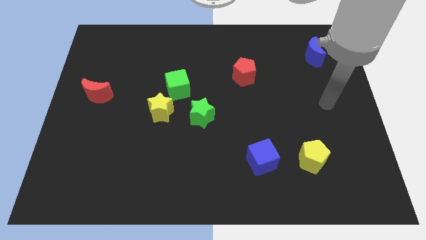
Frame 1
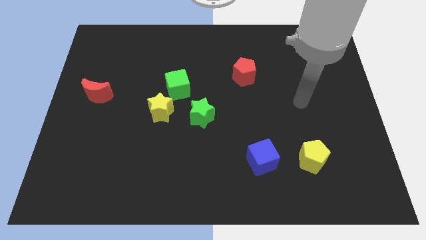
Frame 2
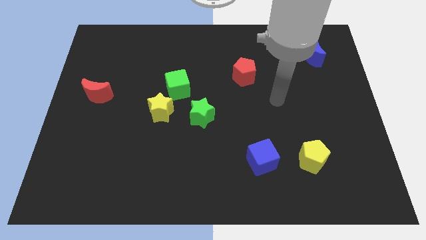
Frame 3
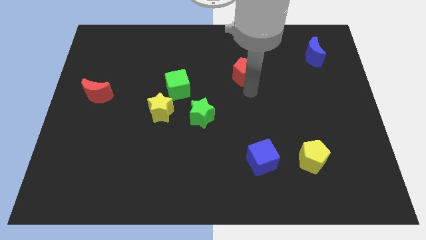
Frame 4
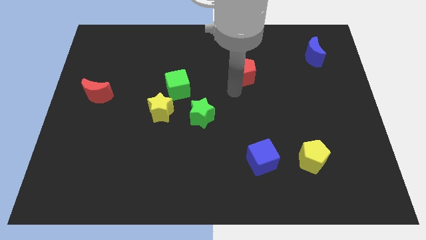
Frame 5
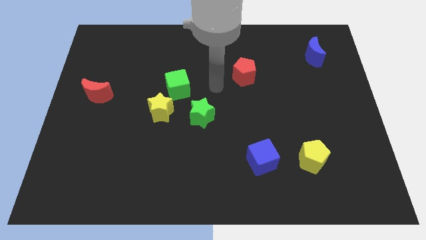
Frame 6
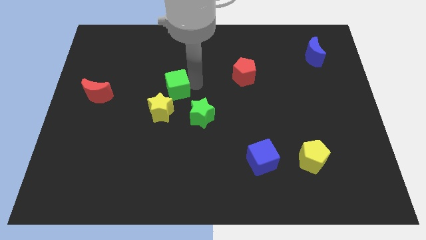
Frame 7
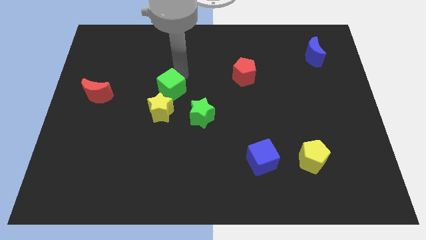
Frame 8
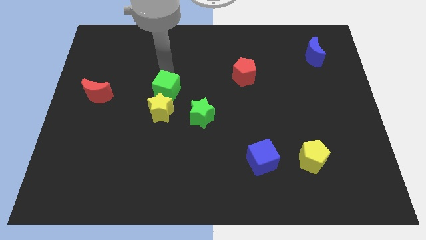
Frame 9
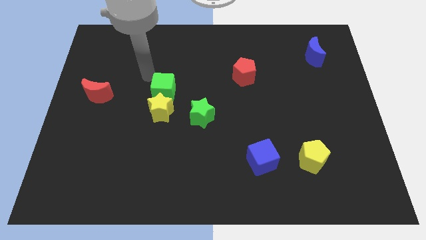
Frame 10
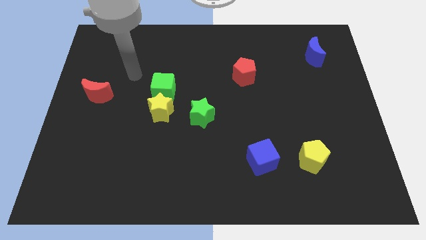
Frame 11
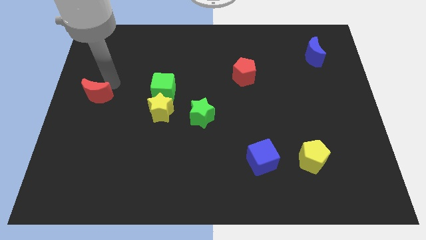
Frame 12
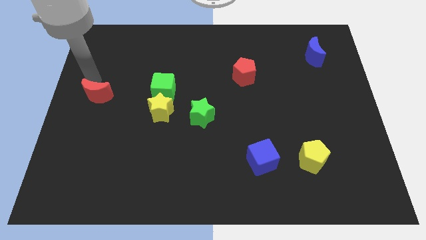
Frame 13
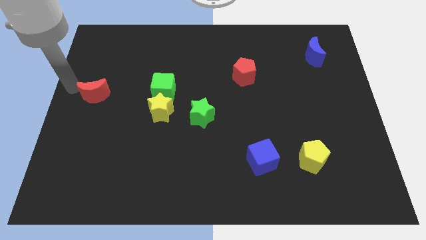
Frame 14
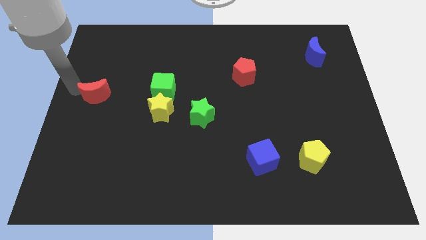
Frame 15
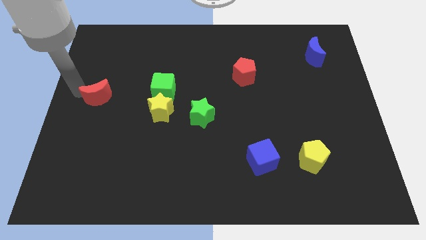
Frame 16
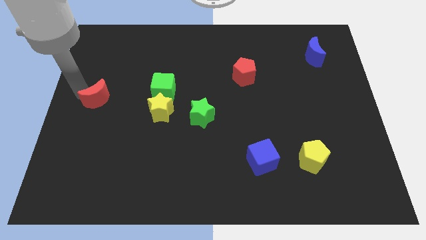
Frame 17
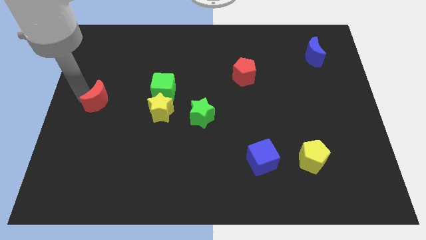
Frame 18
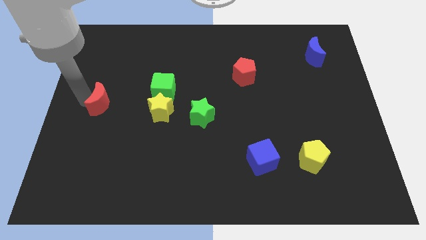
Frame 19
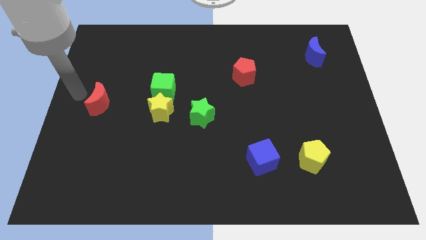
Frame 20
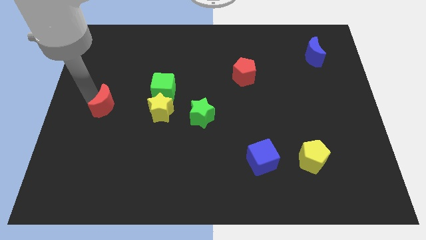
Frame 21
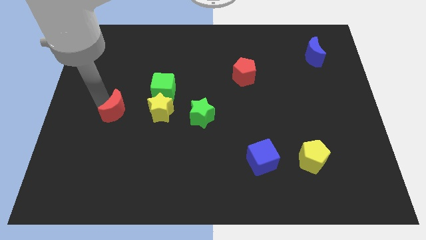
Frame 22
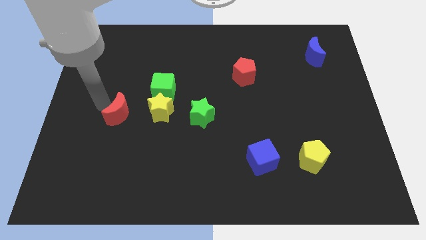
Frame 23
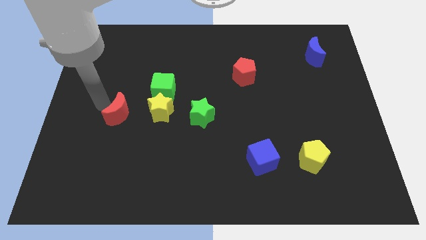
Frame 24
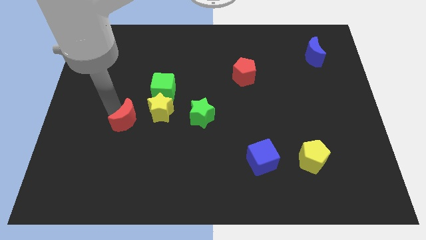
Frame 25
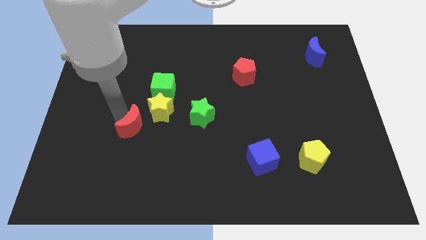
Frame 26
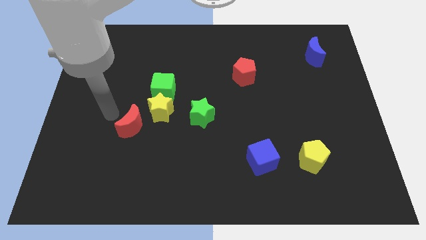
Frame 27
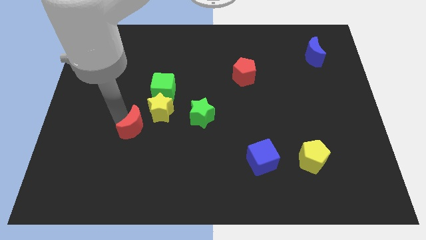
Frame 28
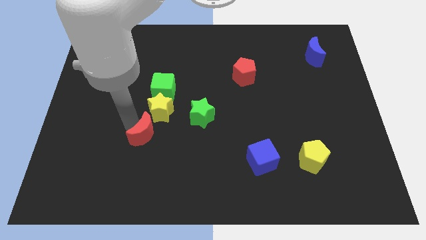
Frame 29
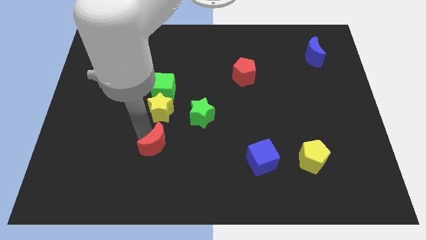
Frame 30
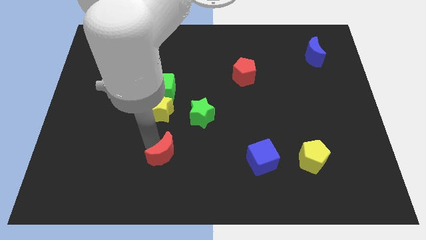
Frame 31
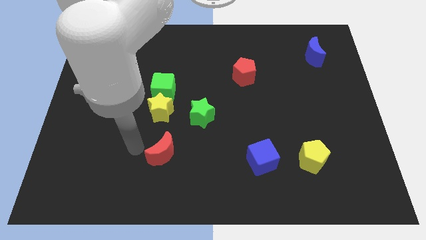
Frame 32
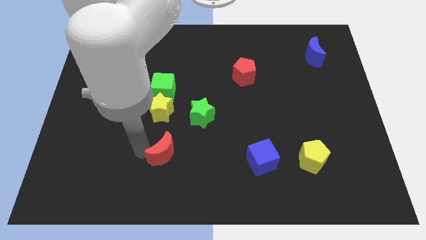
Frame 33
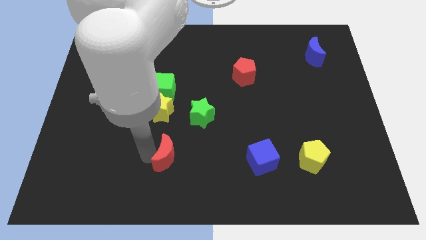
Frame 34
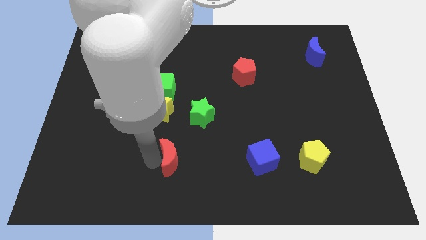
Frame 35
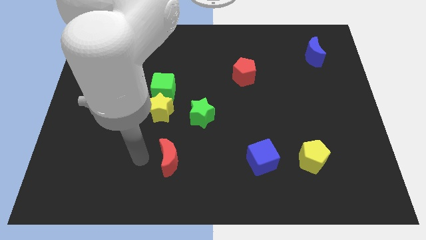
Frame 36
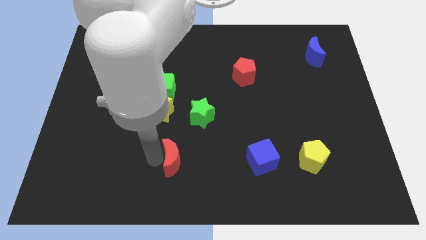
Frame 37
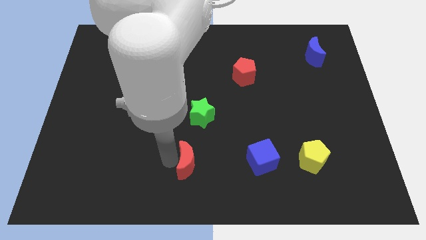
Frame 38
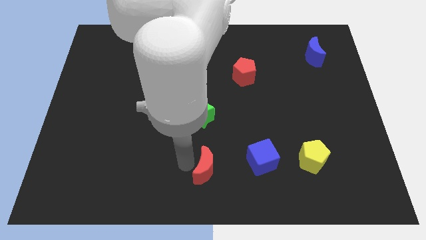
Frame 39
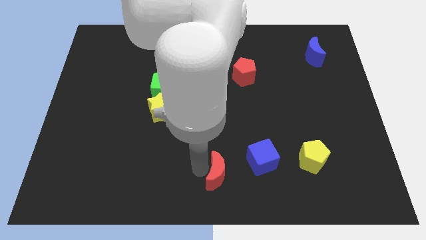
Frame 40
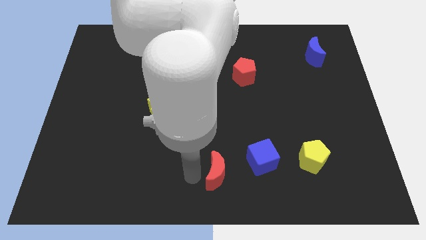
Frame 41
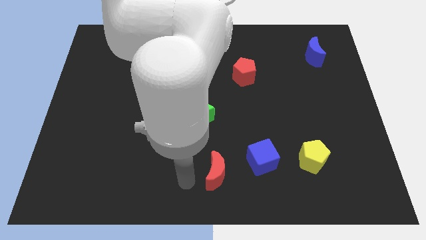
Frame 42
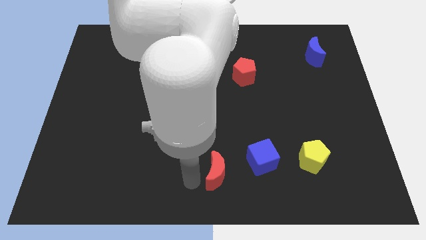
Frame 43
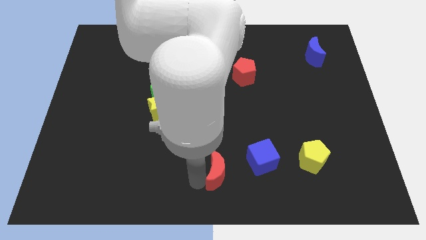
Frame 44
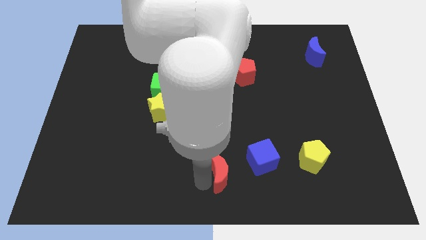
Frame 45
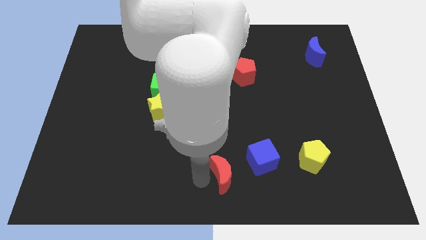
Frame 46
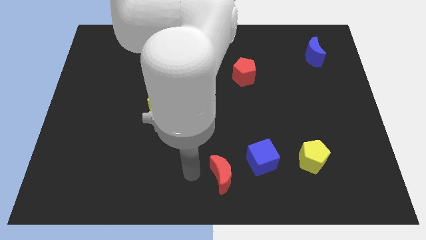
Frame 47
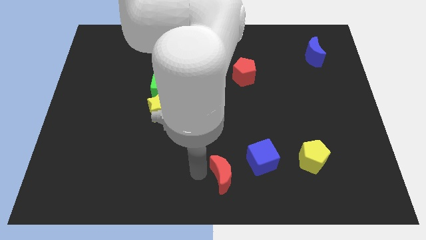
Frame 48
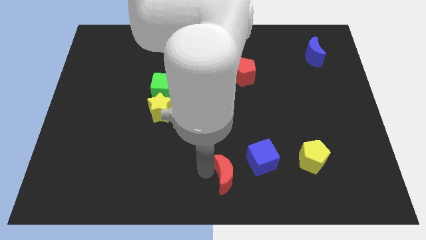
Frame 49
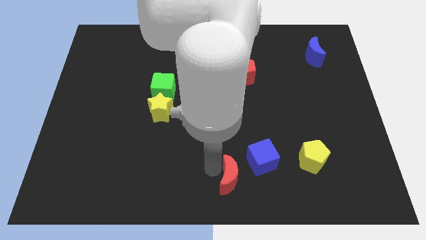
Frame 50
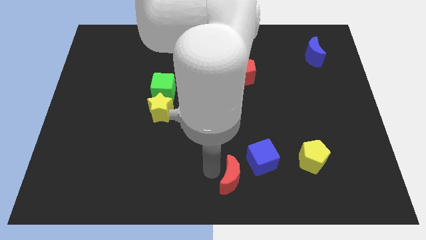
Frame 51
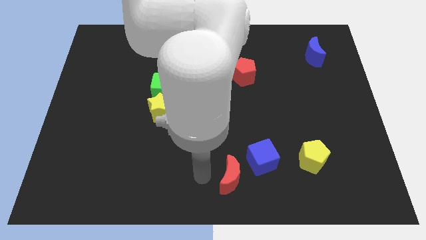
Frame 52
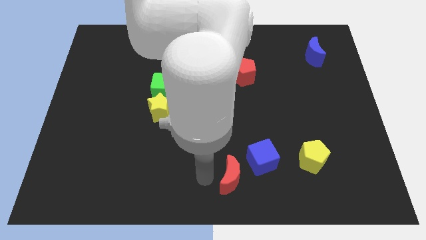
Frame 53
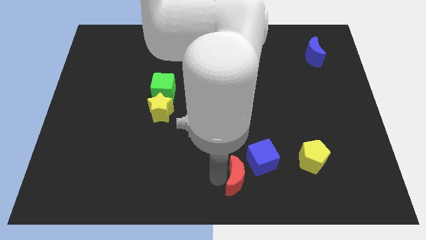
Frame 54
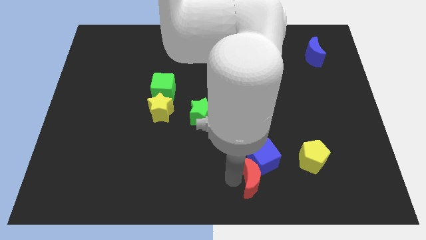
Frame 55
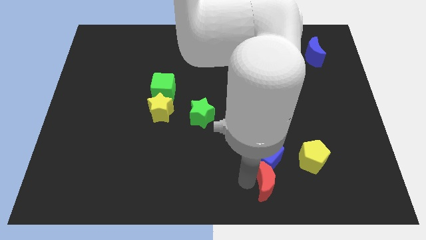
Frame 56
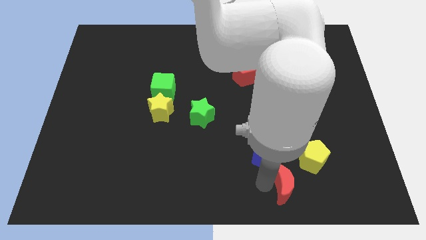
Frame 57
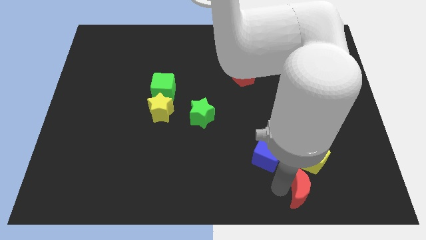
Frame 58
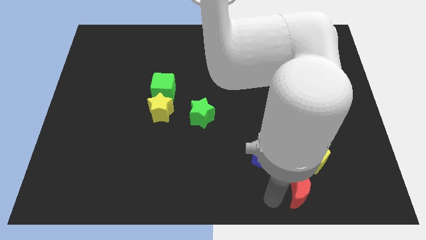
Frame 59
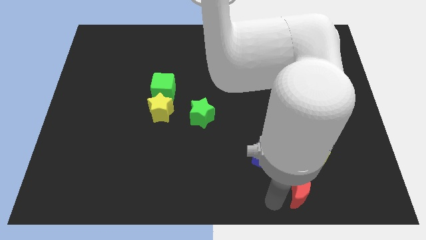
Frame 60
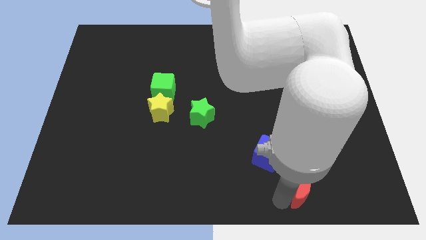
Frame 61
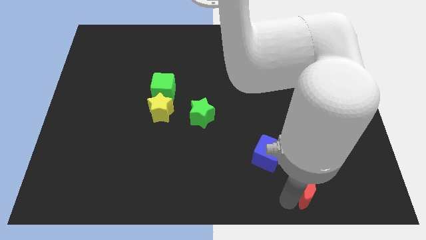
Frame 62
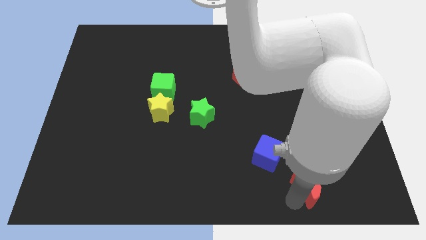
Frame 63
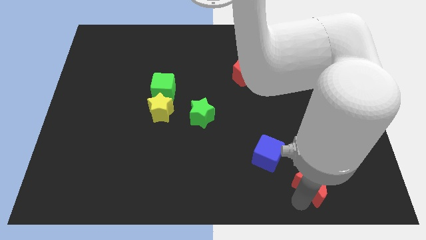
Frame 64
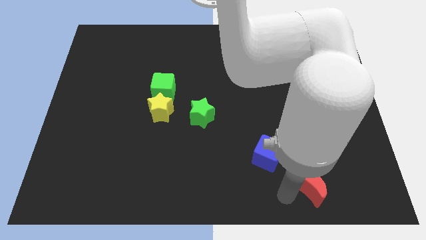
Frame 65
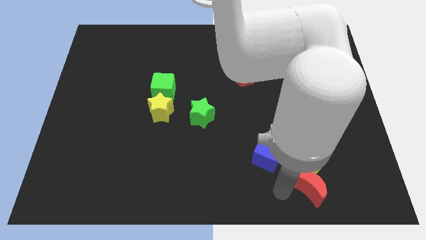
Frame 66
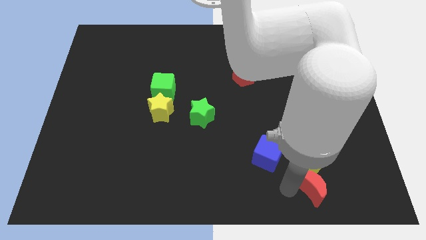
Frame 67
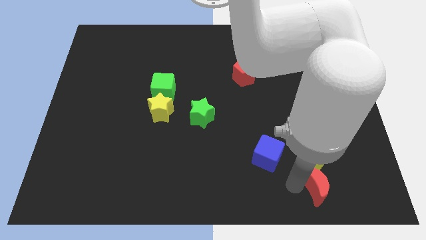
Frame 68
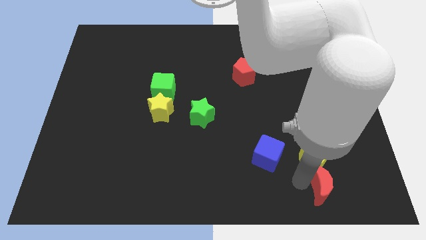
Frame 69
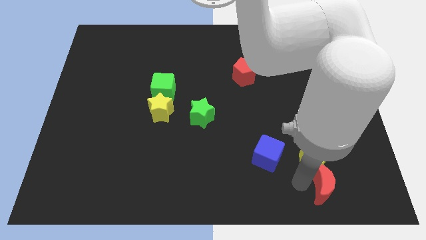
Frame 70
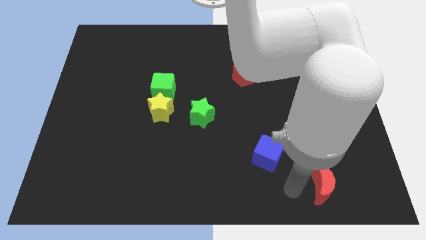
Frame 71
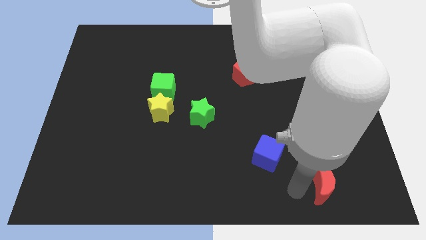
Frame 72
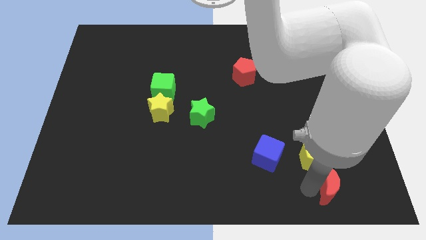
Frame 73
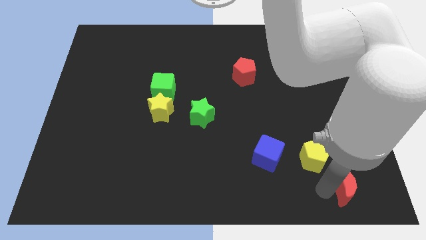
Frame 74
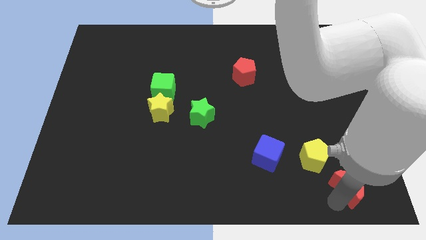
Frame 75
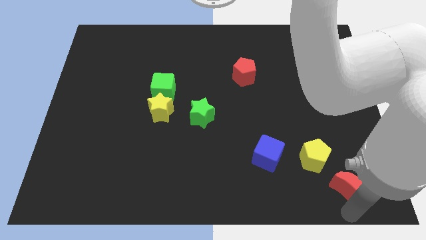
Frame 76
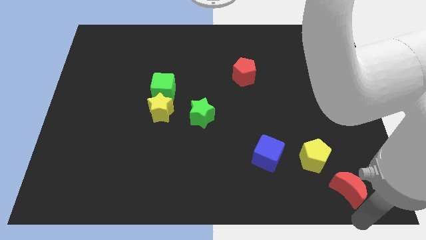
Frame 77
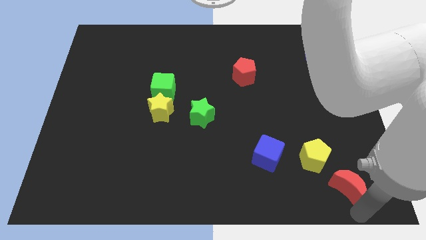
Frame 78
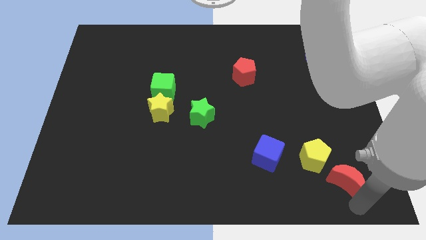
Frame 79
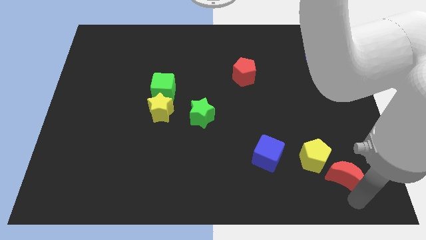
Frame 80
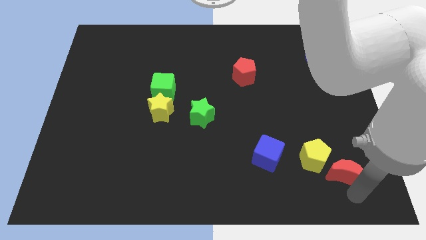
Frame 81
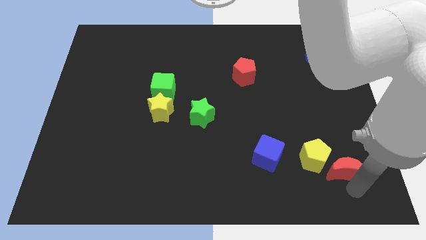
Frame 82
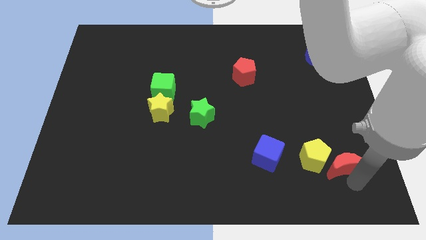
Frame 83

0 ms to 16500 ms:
push the red moon to the right of the blue cube
